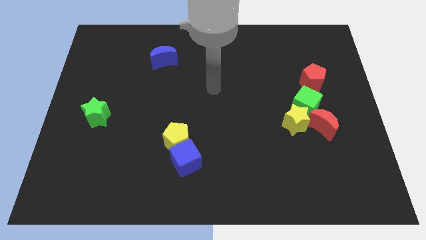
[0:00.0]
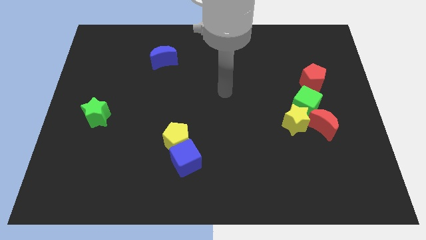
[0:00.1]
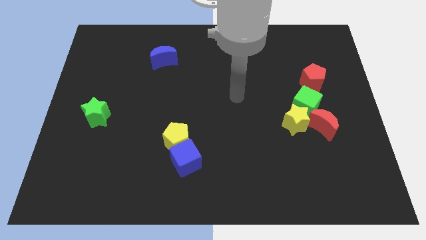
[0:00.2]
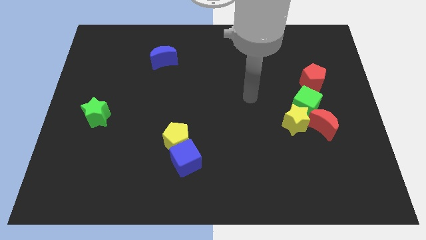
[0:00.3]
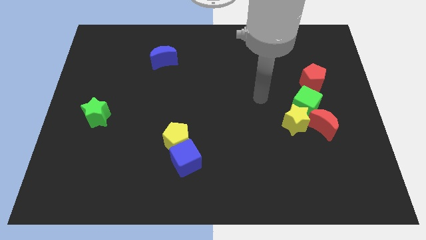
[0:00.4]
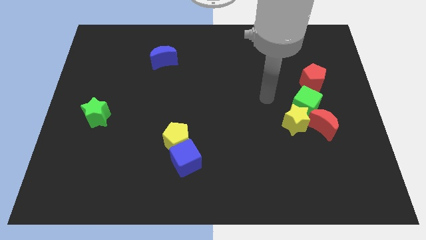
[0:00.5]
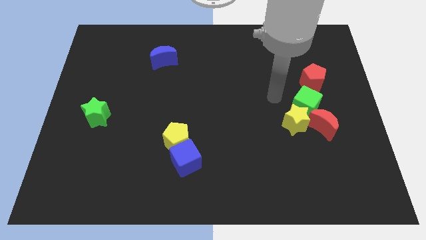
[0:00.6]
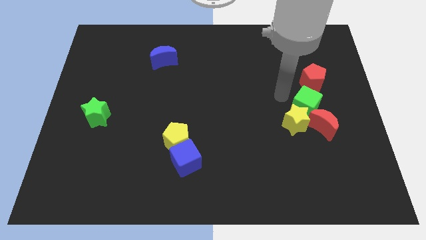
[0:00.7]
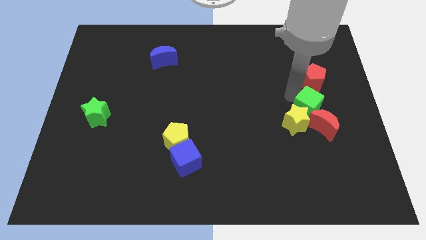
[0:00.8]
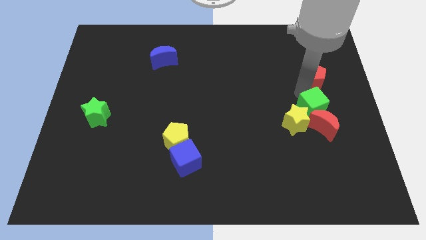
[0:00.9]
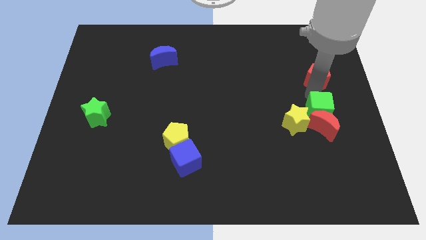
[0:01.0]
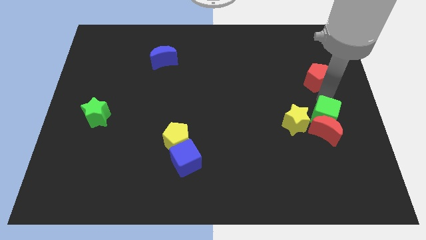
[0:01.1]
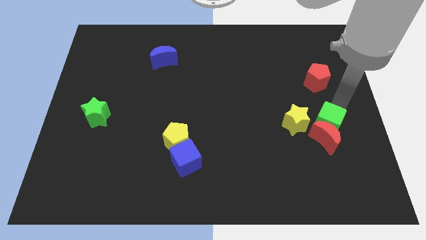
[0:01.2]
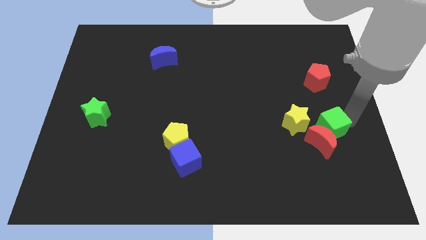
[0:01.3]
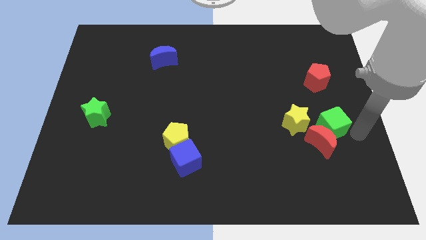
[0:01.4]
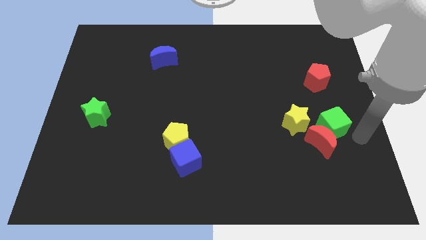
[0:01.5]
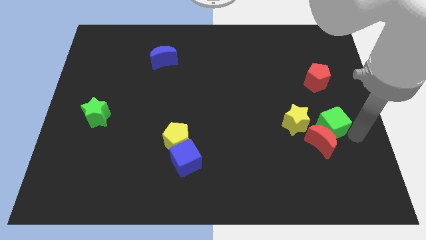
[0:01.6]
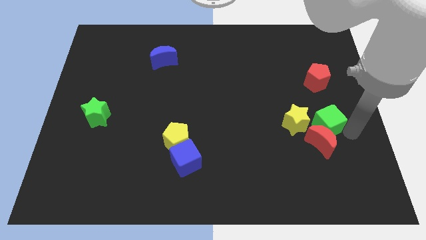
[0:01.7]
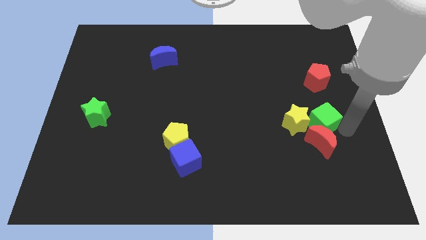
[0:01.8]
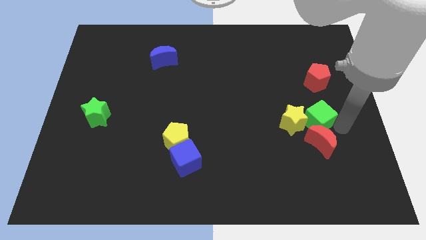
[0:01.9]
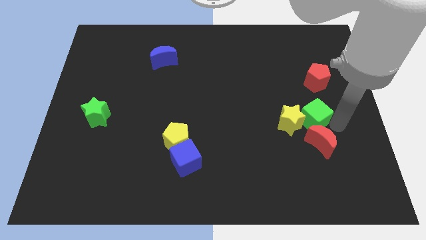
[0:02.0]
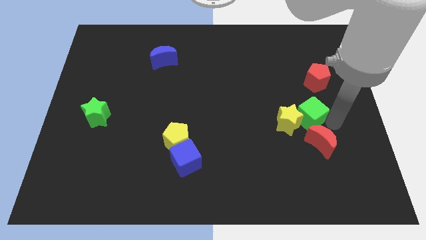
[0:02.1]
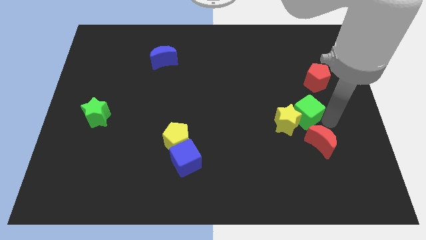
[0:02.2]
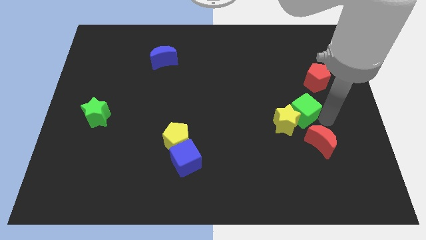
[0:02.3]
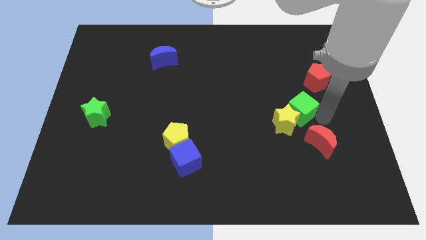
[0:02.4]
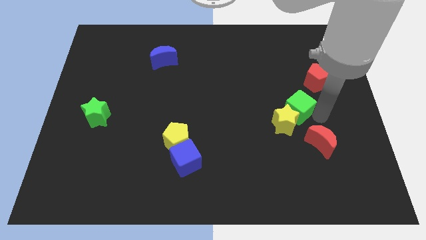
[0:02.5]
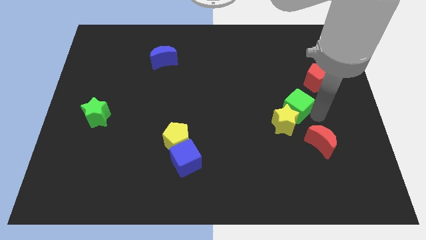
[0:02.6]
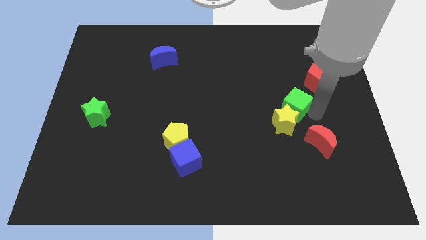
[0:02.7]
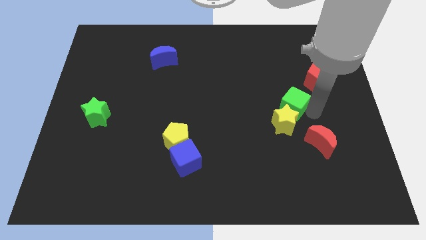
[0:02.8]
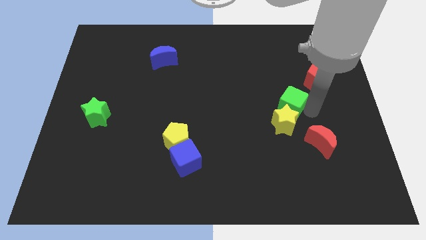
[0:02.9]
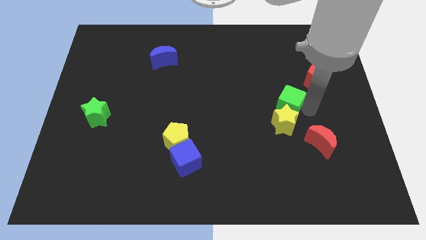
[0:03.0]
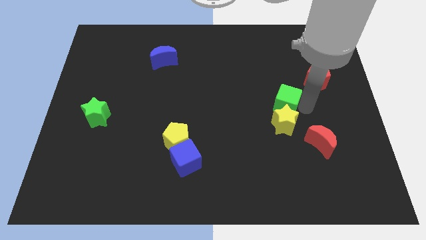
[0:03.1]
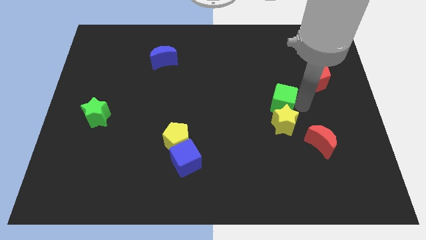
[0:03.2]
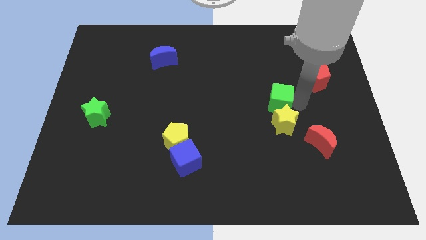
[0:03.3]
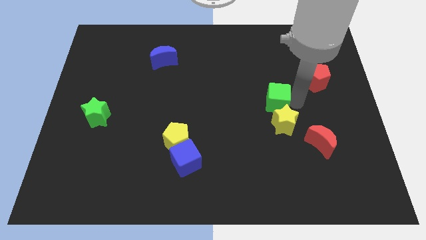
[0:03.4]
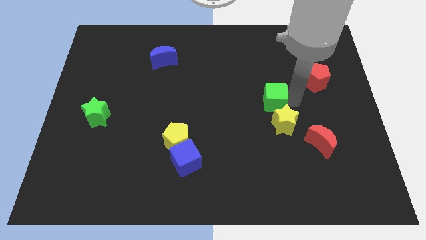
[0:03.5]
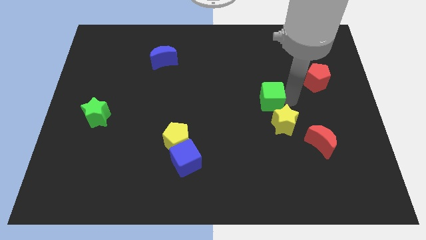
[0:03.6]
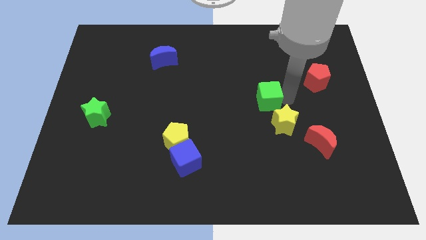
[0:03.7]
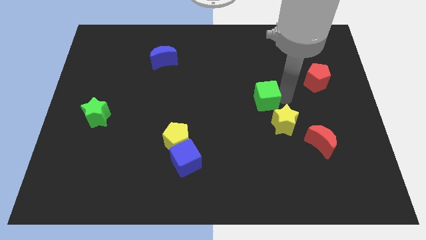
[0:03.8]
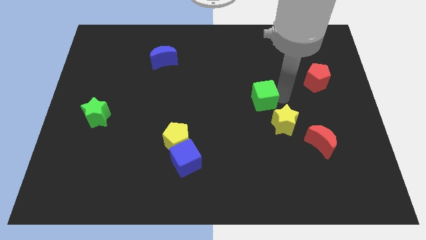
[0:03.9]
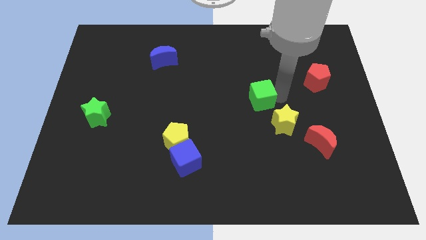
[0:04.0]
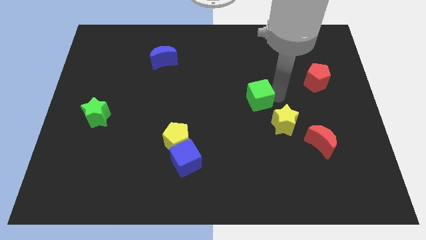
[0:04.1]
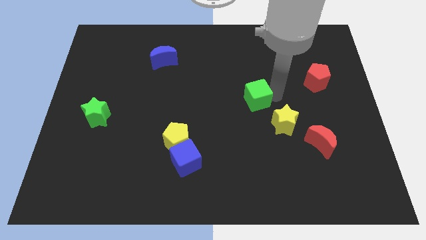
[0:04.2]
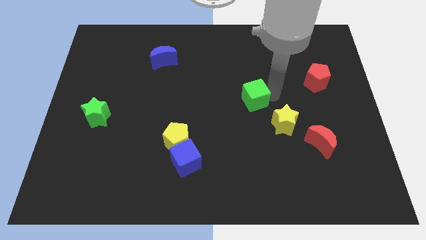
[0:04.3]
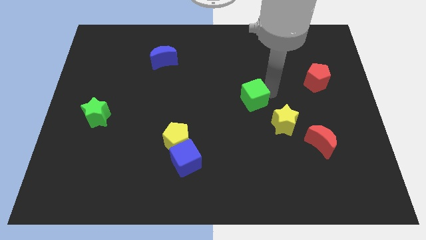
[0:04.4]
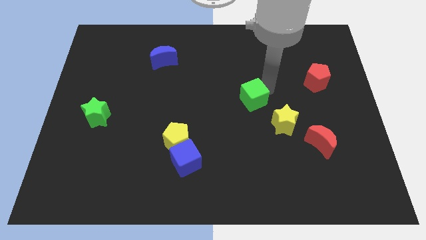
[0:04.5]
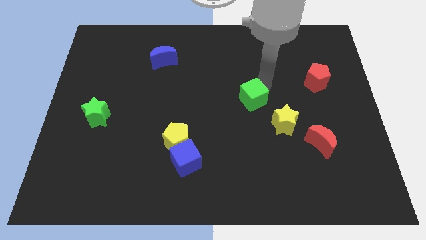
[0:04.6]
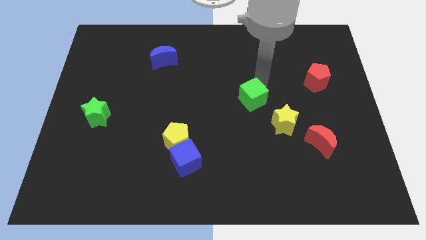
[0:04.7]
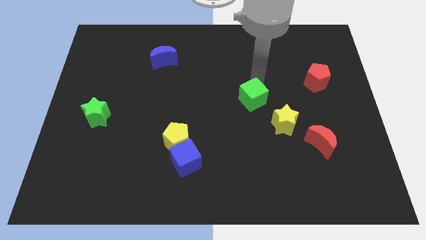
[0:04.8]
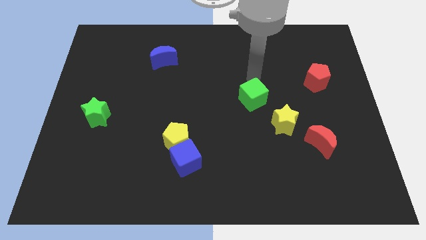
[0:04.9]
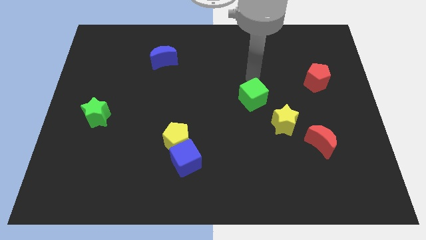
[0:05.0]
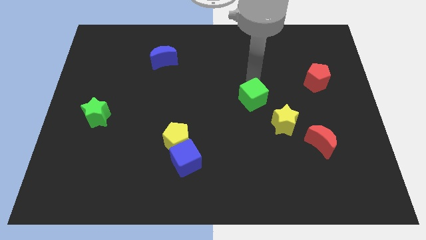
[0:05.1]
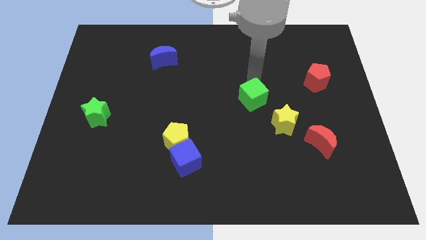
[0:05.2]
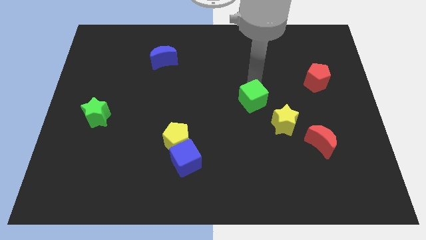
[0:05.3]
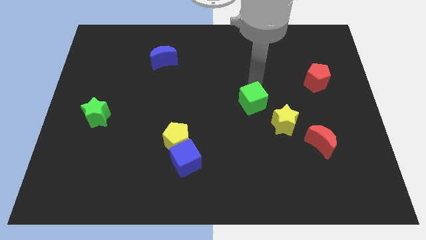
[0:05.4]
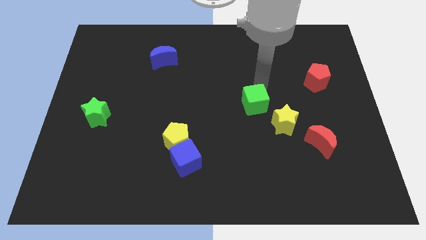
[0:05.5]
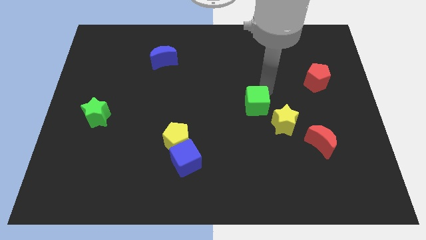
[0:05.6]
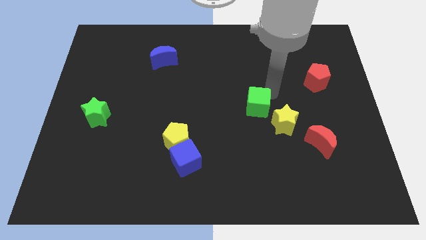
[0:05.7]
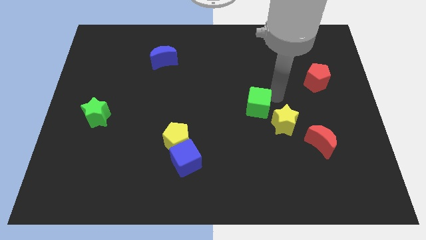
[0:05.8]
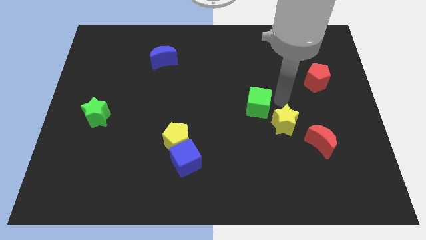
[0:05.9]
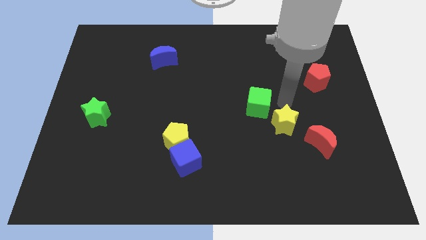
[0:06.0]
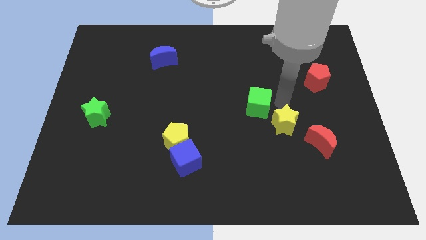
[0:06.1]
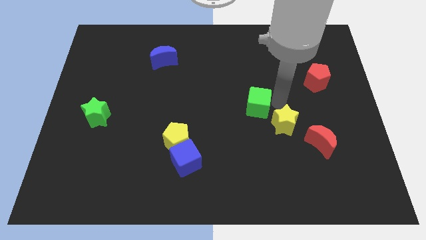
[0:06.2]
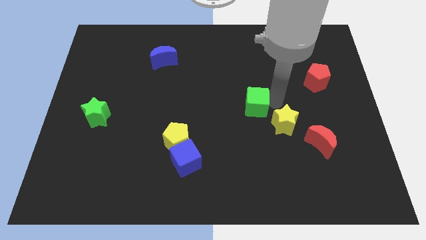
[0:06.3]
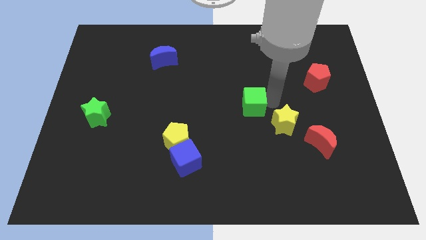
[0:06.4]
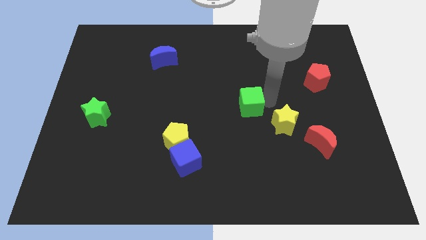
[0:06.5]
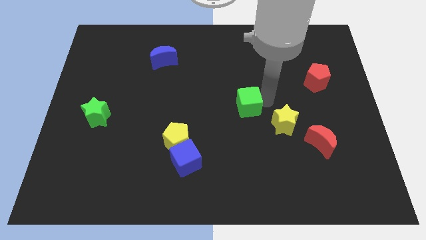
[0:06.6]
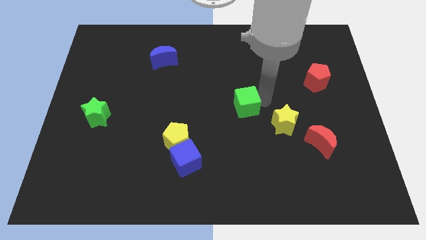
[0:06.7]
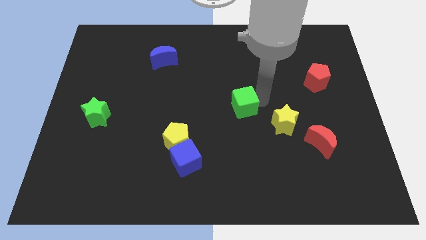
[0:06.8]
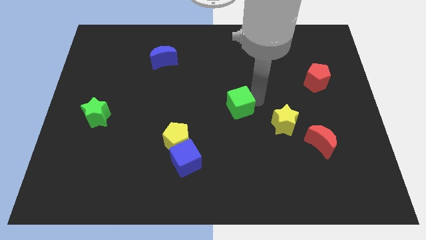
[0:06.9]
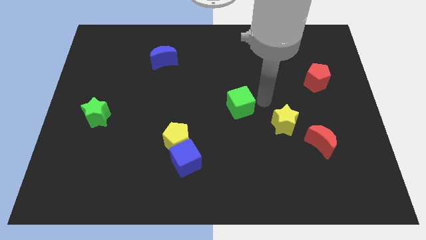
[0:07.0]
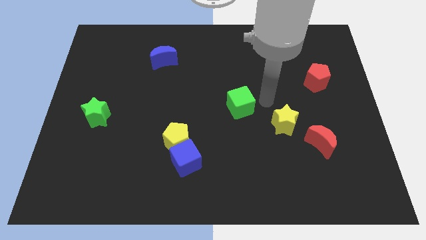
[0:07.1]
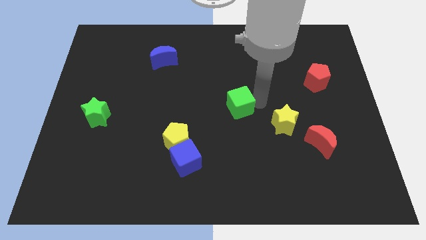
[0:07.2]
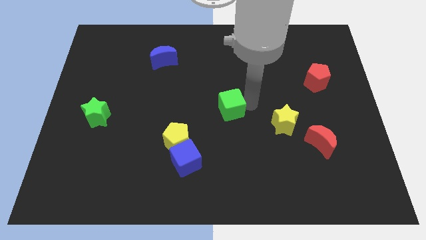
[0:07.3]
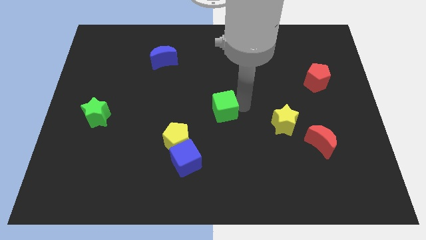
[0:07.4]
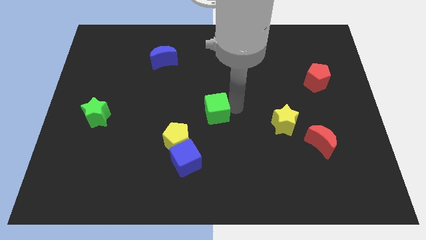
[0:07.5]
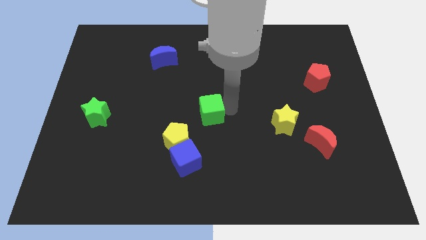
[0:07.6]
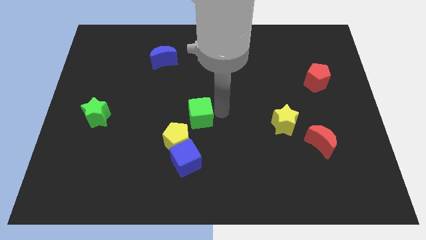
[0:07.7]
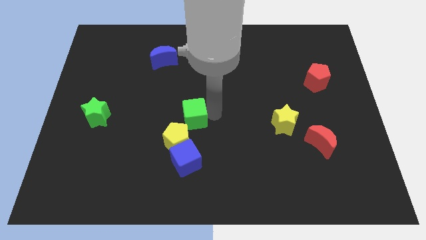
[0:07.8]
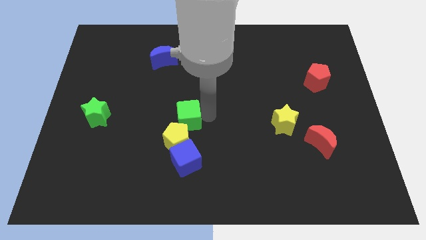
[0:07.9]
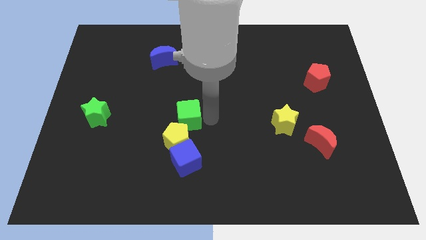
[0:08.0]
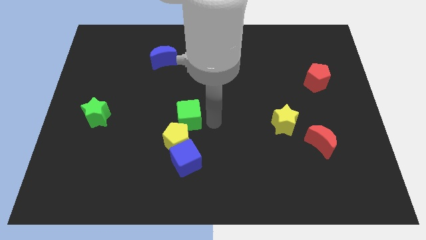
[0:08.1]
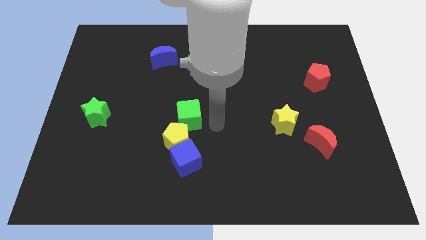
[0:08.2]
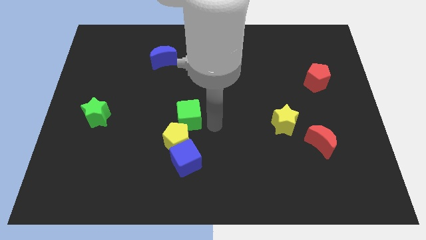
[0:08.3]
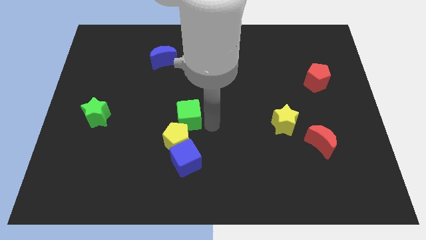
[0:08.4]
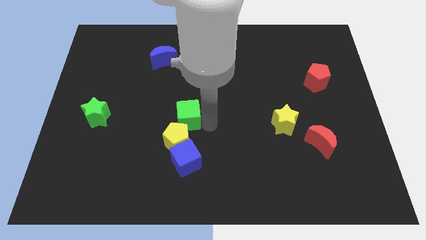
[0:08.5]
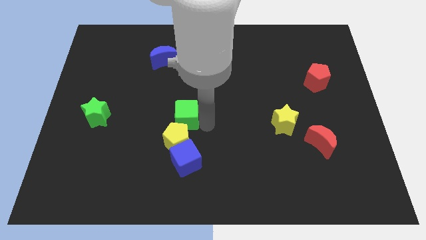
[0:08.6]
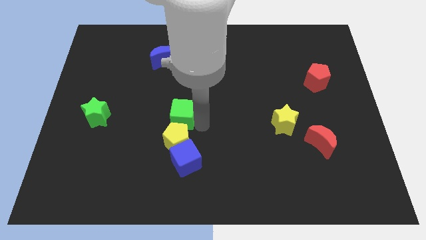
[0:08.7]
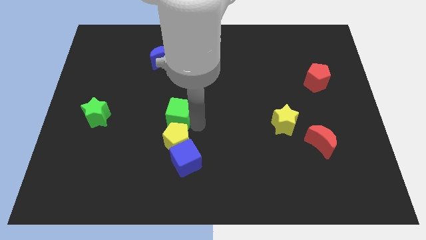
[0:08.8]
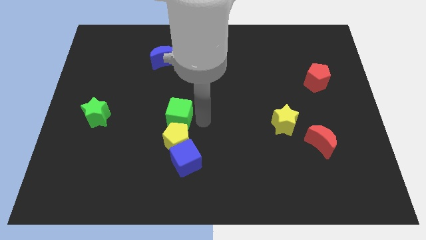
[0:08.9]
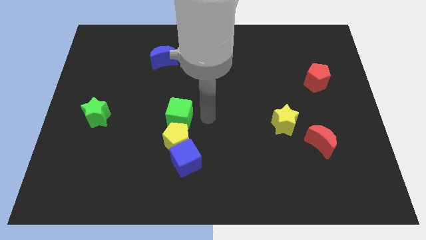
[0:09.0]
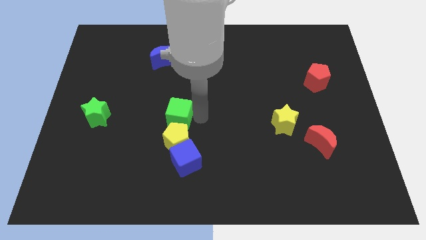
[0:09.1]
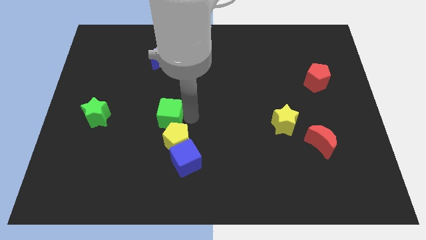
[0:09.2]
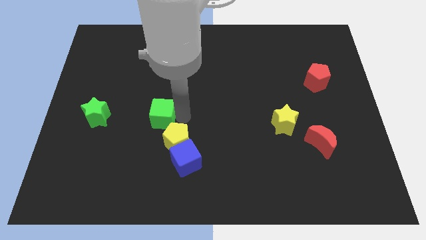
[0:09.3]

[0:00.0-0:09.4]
push the green cube just right of the green star
